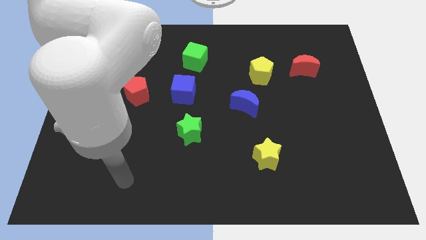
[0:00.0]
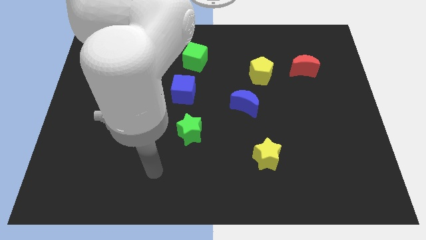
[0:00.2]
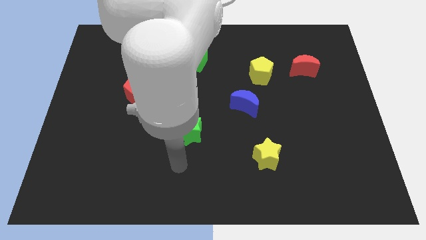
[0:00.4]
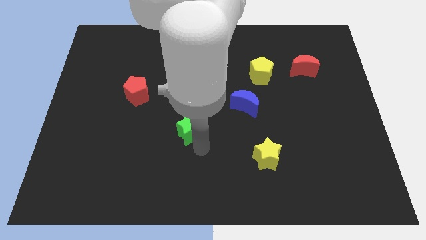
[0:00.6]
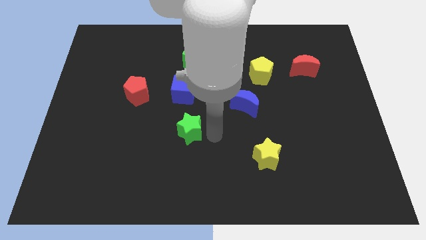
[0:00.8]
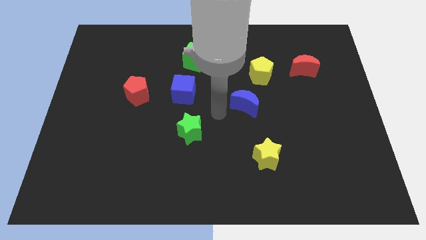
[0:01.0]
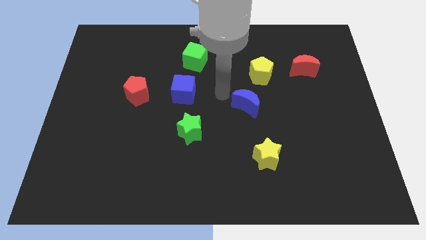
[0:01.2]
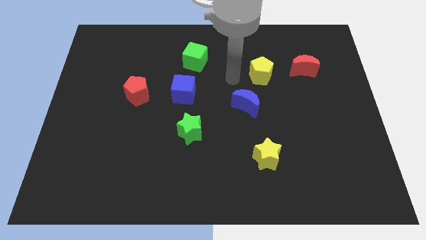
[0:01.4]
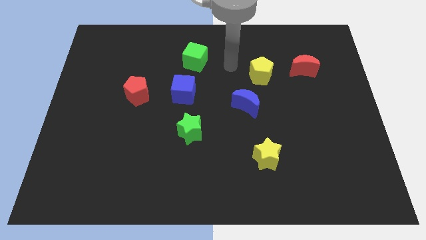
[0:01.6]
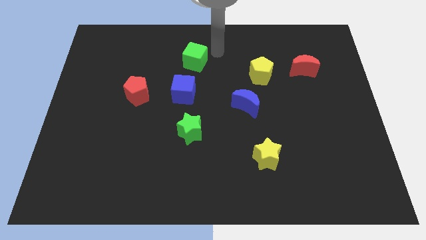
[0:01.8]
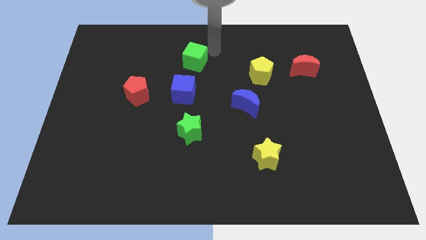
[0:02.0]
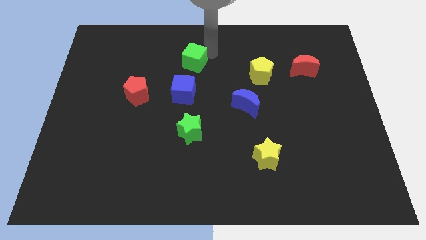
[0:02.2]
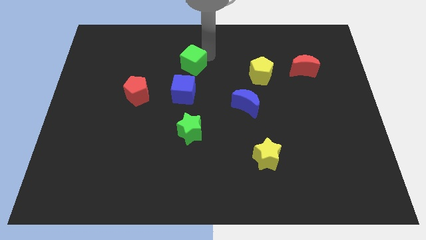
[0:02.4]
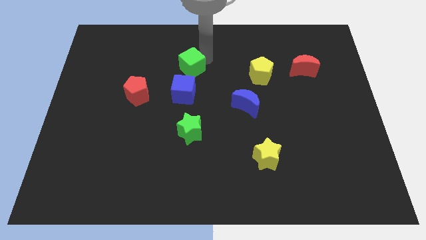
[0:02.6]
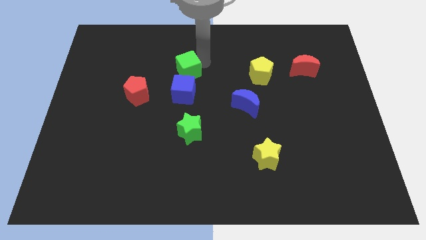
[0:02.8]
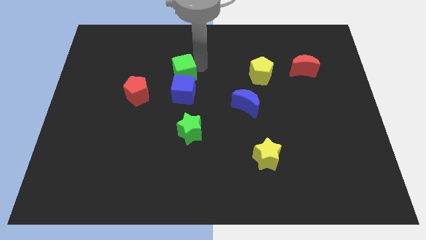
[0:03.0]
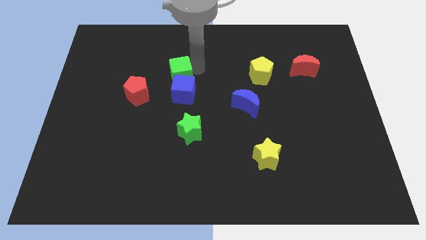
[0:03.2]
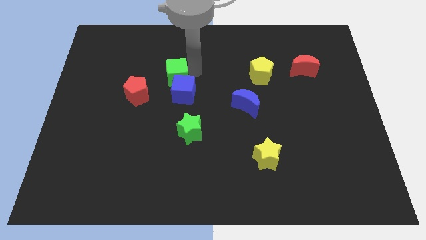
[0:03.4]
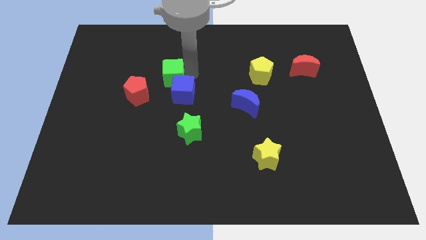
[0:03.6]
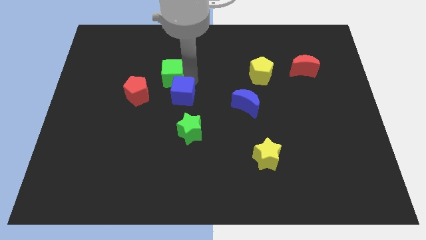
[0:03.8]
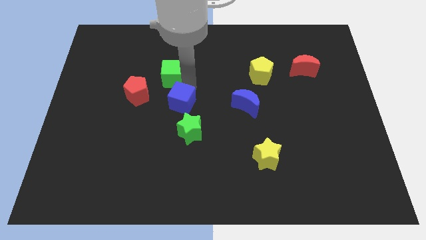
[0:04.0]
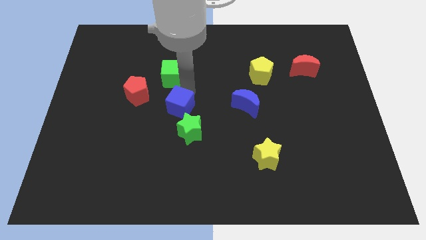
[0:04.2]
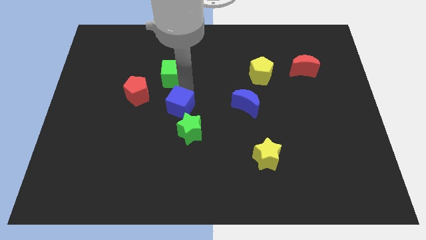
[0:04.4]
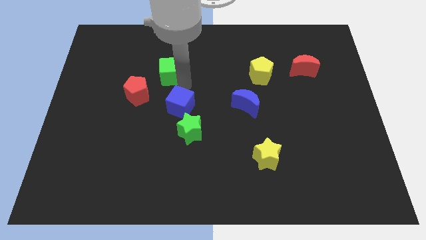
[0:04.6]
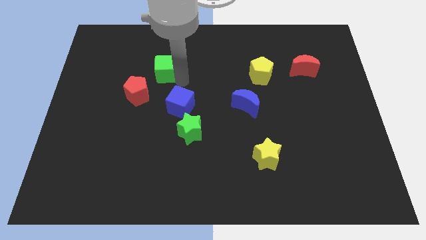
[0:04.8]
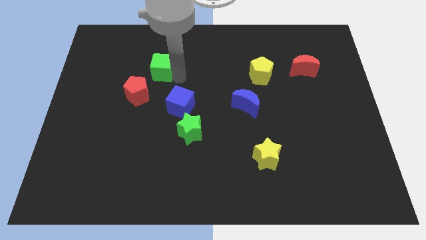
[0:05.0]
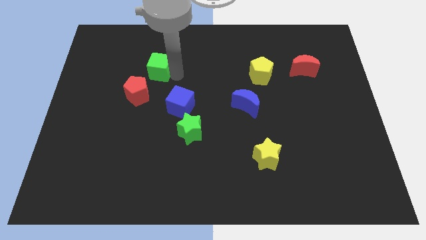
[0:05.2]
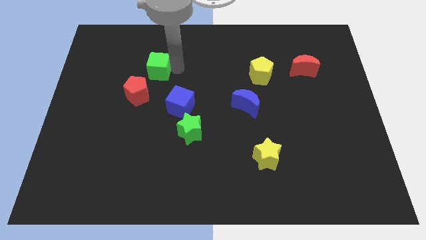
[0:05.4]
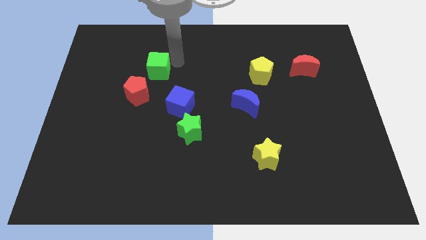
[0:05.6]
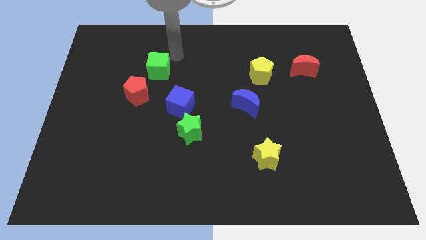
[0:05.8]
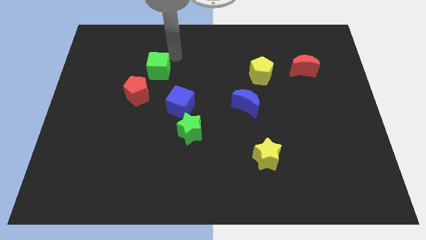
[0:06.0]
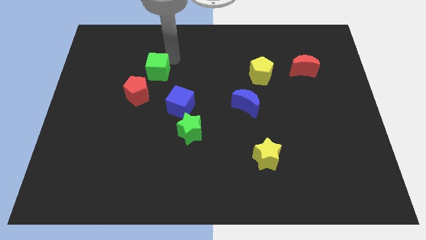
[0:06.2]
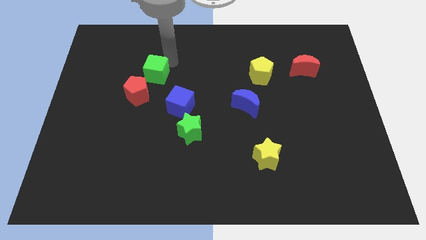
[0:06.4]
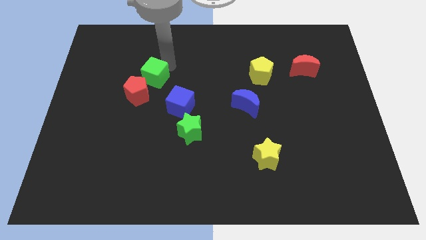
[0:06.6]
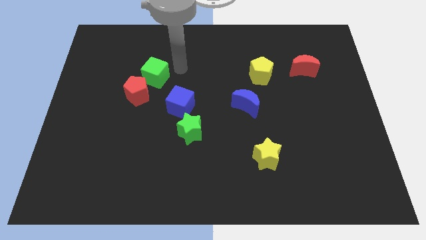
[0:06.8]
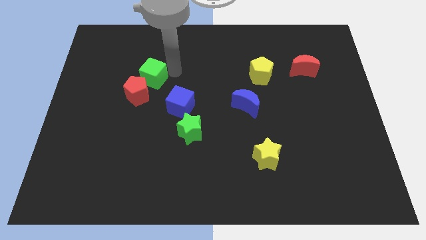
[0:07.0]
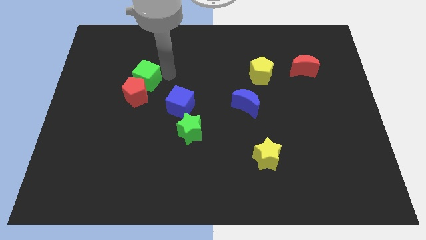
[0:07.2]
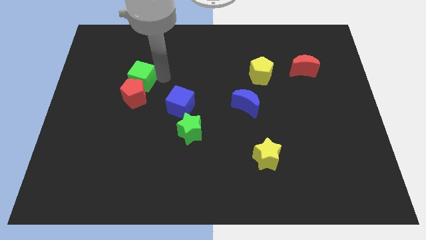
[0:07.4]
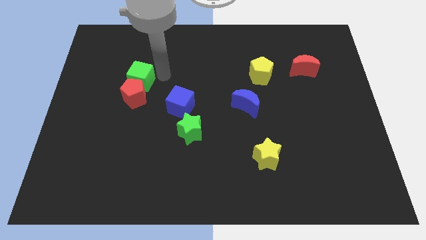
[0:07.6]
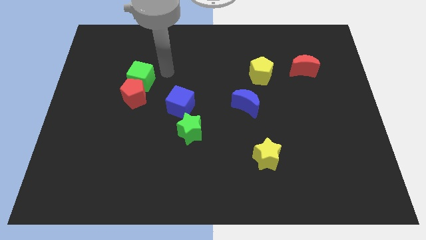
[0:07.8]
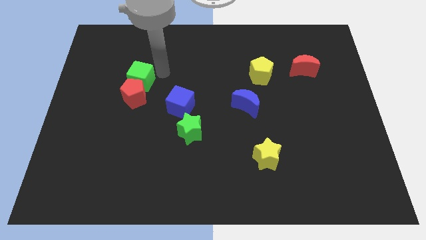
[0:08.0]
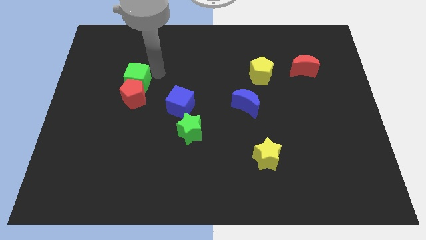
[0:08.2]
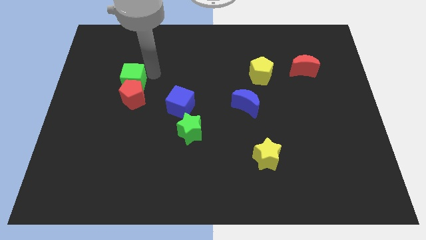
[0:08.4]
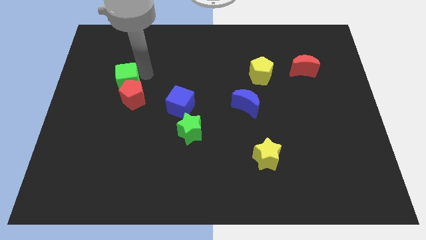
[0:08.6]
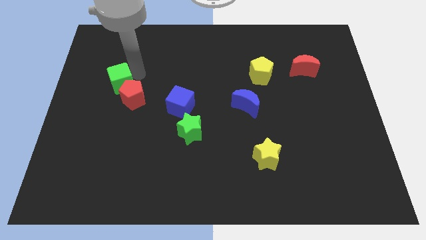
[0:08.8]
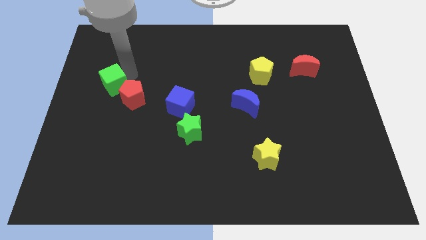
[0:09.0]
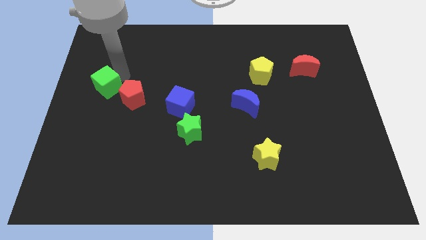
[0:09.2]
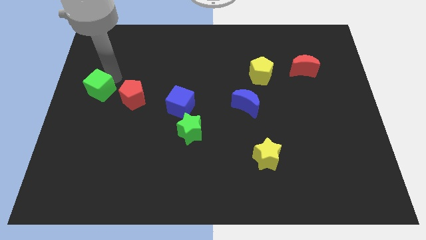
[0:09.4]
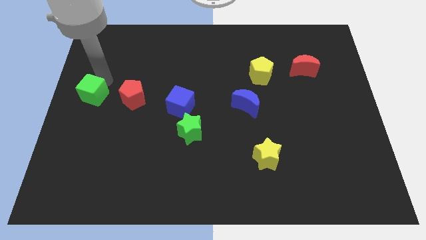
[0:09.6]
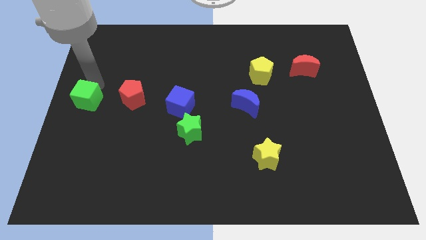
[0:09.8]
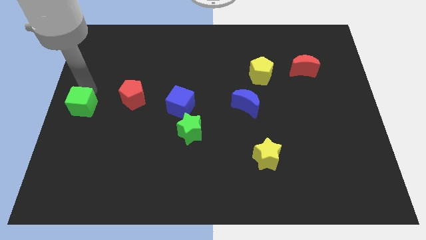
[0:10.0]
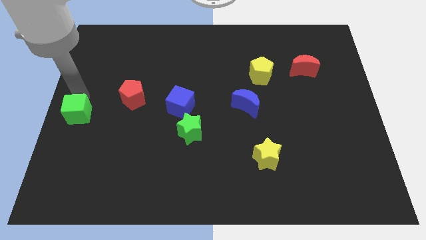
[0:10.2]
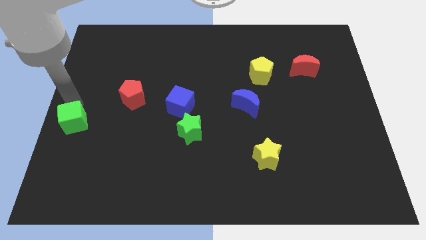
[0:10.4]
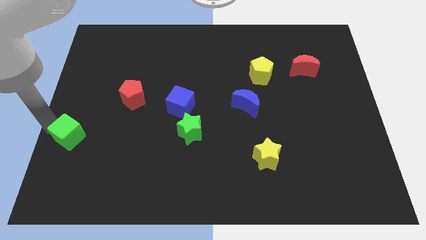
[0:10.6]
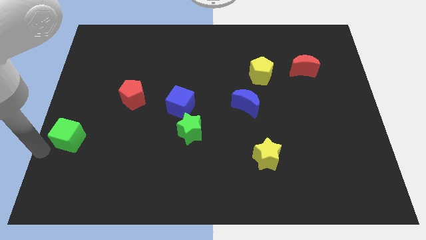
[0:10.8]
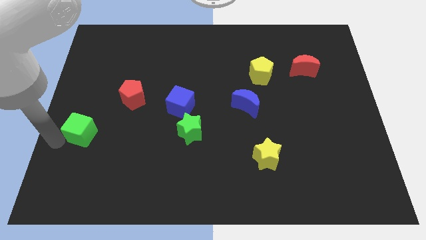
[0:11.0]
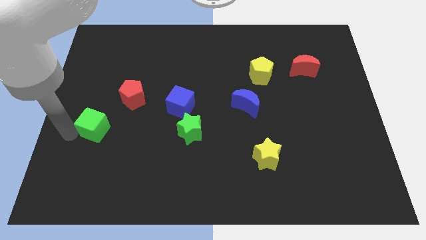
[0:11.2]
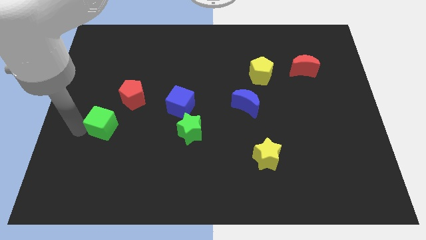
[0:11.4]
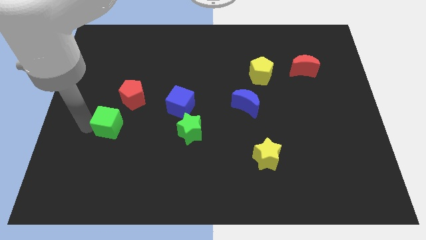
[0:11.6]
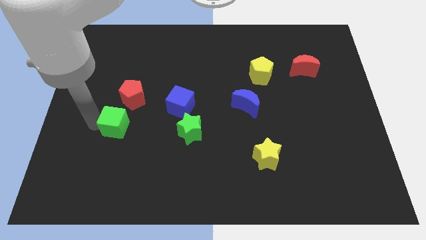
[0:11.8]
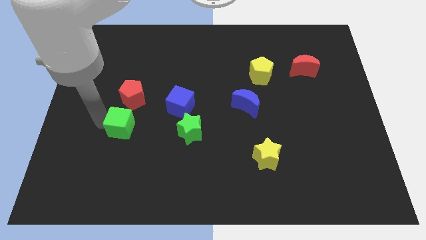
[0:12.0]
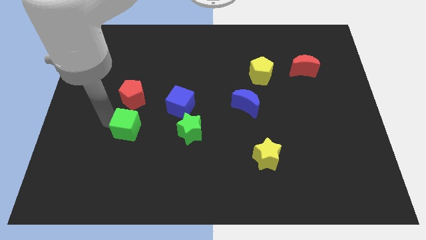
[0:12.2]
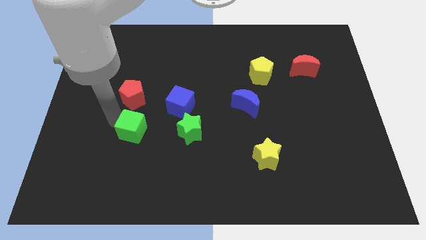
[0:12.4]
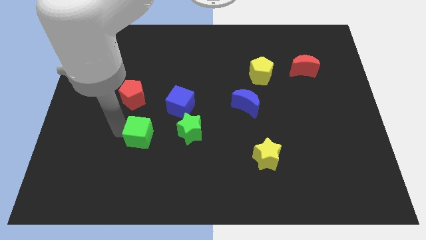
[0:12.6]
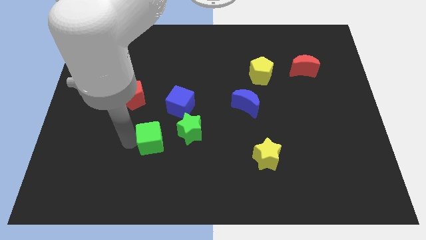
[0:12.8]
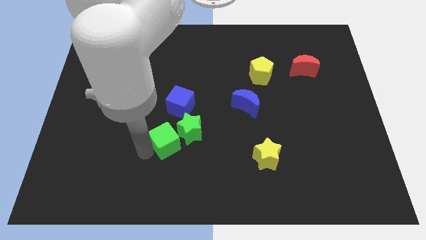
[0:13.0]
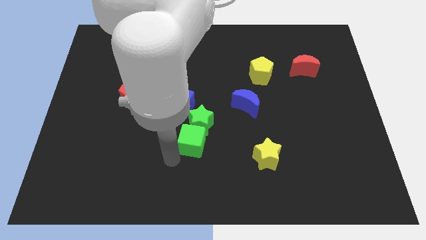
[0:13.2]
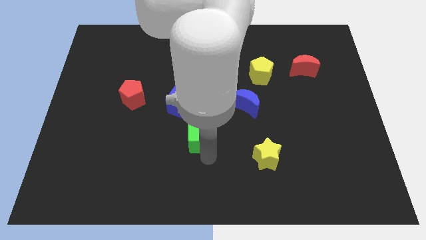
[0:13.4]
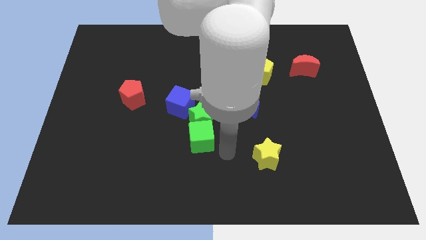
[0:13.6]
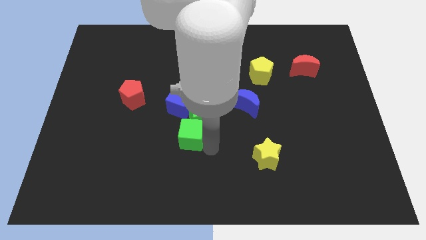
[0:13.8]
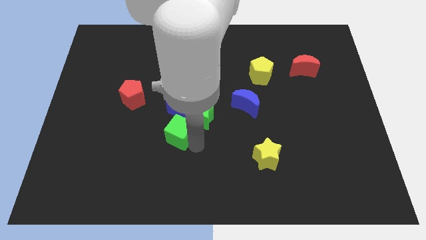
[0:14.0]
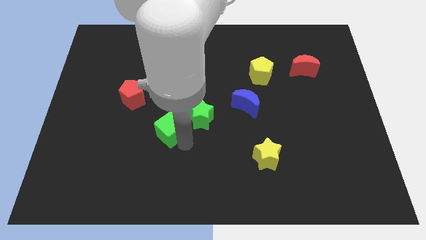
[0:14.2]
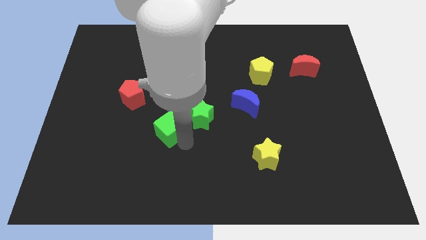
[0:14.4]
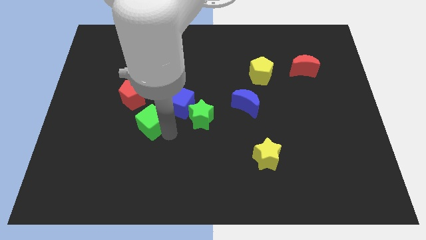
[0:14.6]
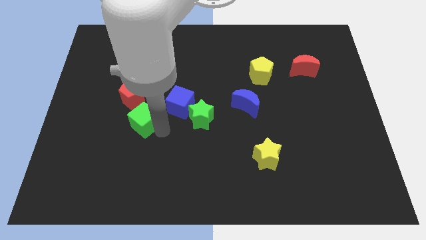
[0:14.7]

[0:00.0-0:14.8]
slide the green cube left of the blue cube
